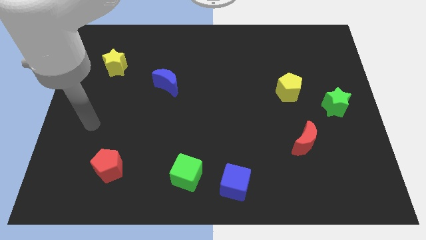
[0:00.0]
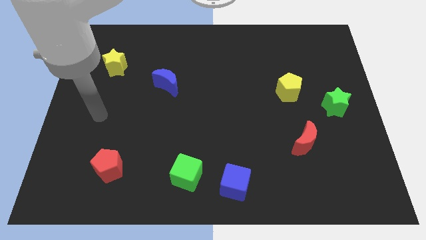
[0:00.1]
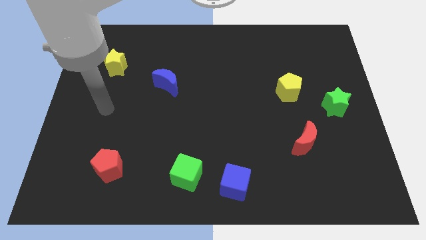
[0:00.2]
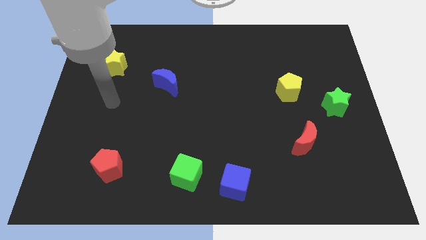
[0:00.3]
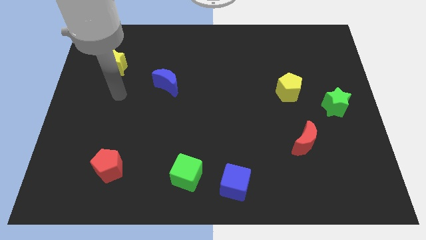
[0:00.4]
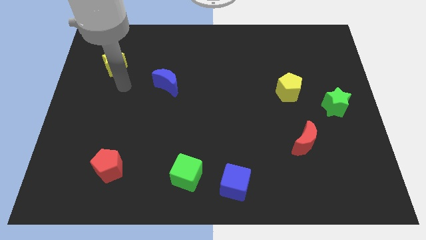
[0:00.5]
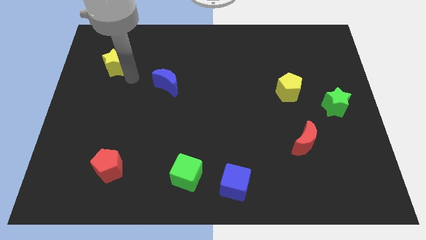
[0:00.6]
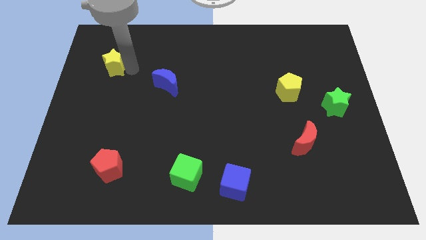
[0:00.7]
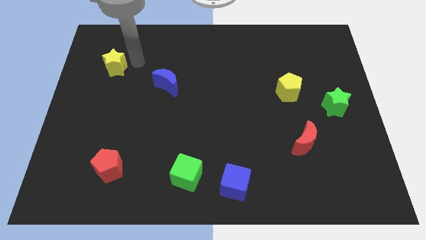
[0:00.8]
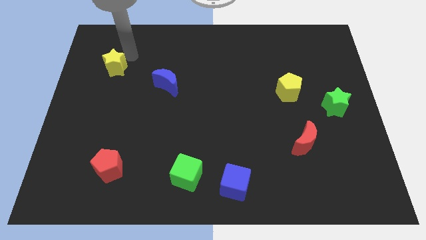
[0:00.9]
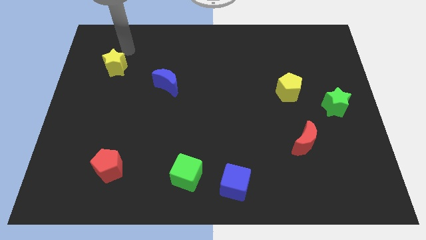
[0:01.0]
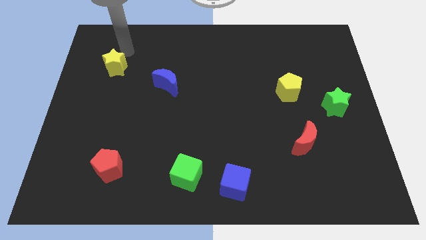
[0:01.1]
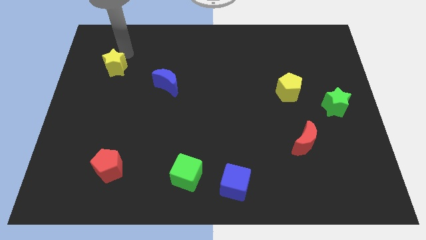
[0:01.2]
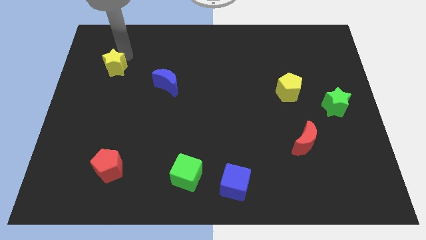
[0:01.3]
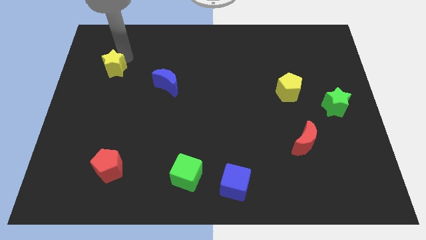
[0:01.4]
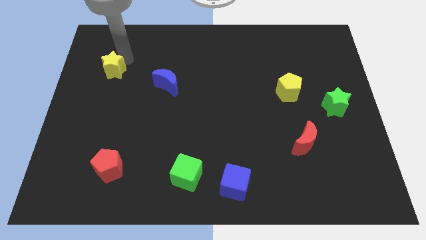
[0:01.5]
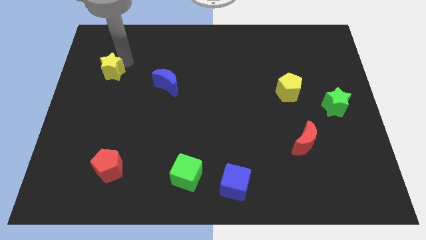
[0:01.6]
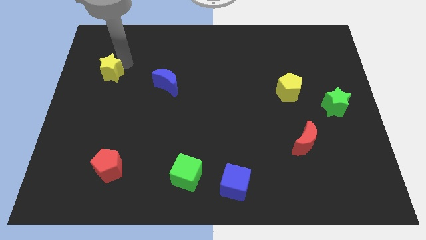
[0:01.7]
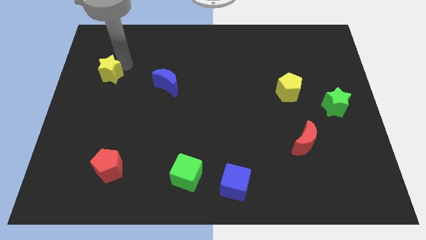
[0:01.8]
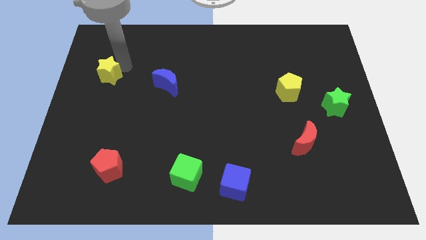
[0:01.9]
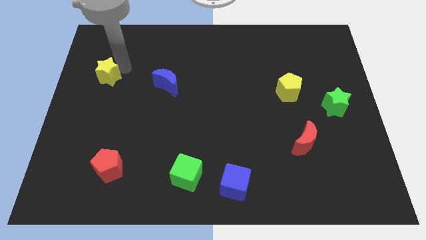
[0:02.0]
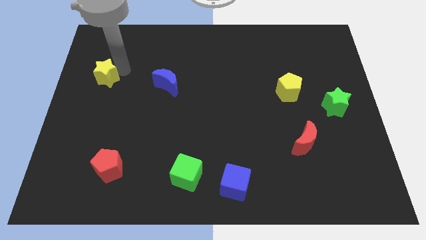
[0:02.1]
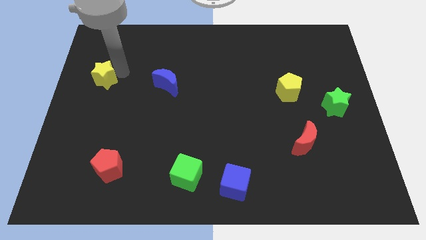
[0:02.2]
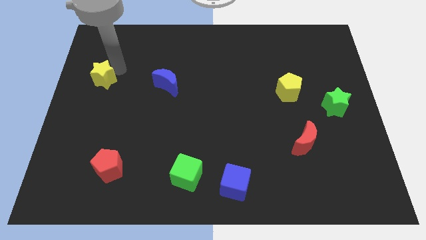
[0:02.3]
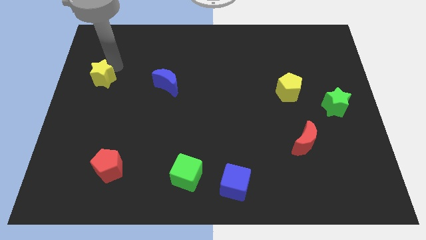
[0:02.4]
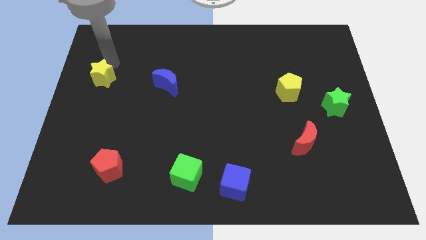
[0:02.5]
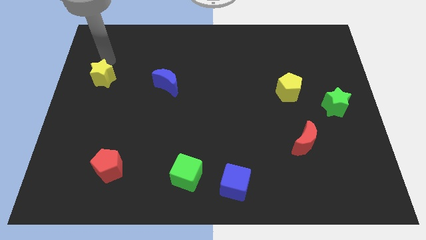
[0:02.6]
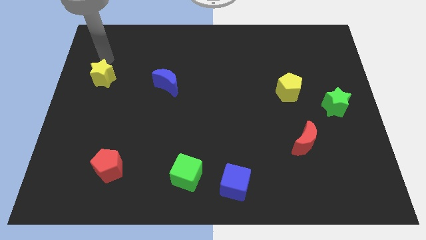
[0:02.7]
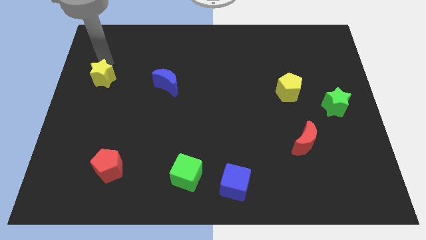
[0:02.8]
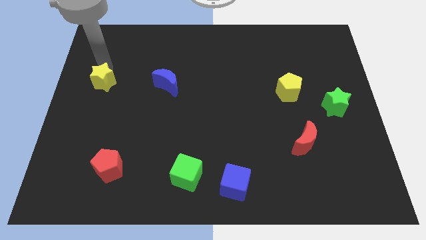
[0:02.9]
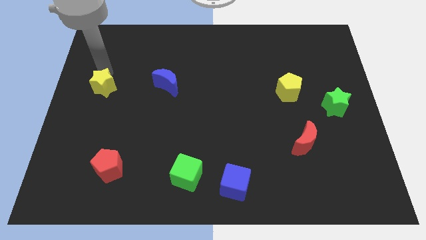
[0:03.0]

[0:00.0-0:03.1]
slide the yellow star a little downwards

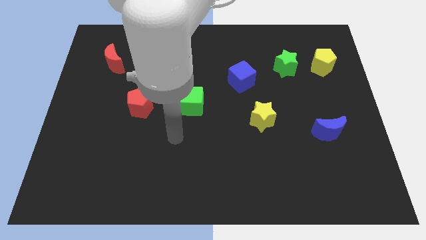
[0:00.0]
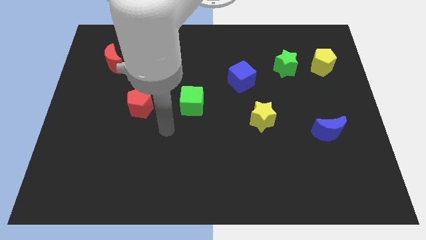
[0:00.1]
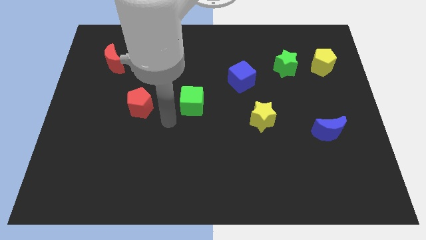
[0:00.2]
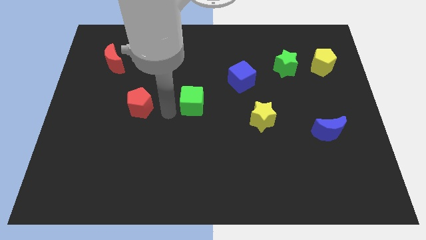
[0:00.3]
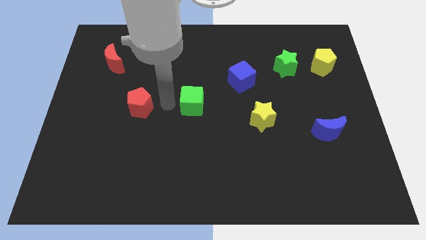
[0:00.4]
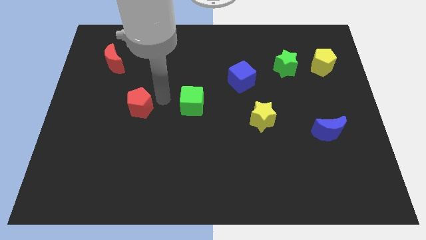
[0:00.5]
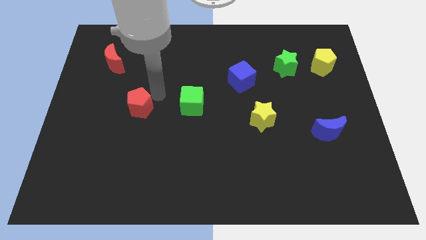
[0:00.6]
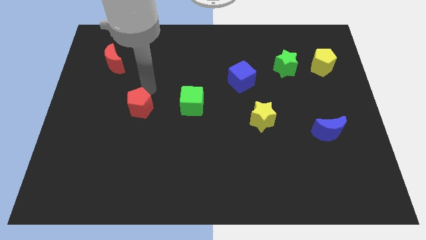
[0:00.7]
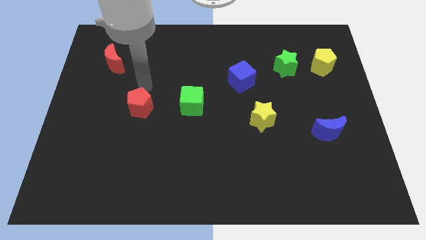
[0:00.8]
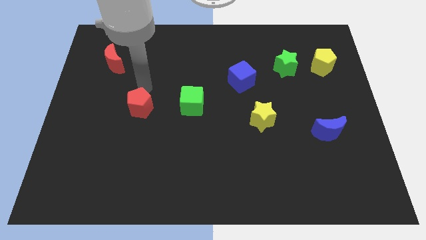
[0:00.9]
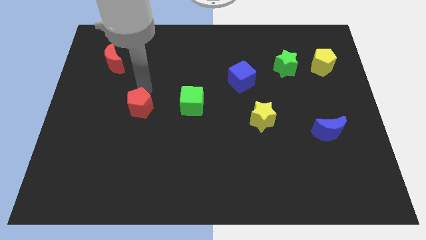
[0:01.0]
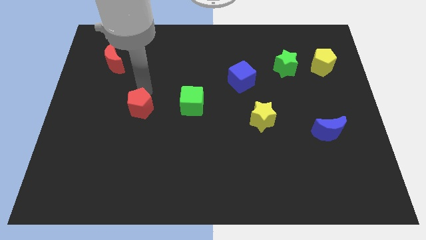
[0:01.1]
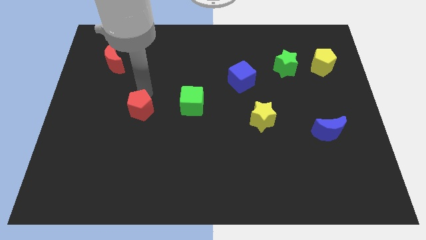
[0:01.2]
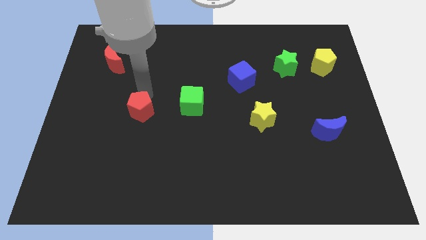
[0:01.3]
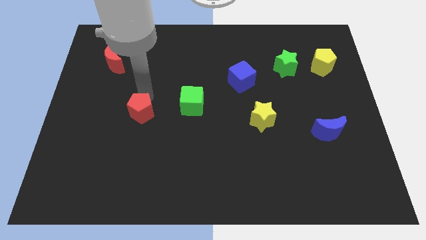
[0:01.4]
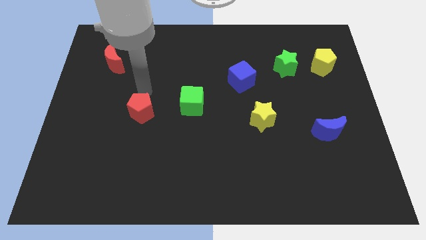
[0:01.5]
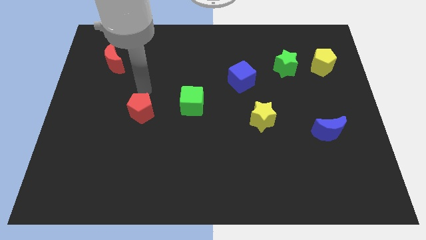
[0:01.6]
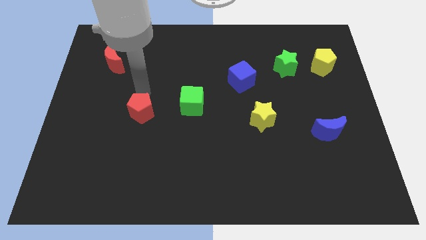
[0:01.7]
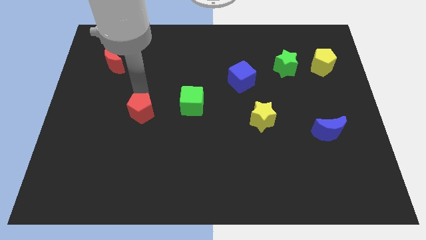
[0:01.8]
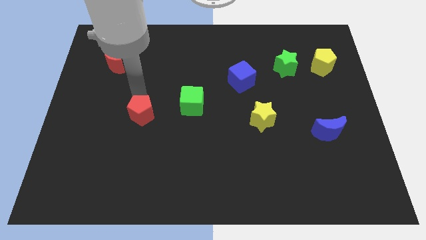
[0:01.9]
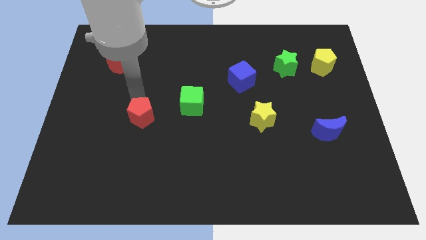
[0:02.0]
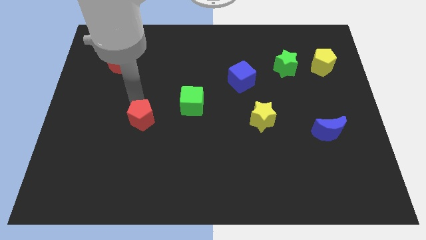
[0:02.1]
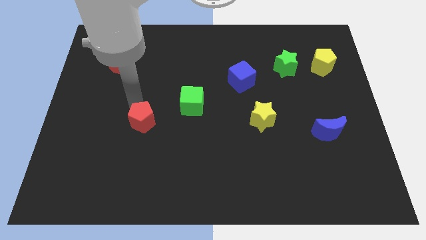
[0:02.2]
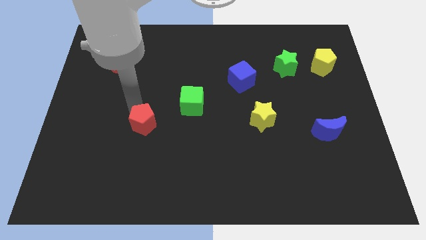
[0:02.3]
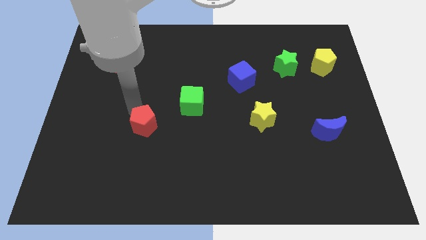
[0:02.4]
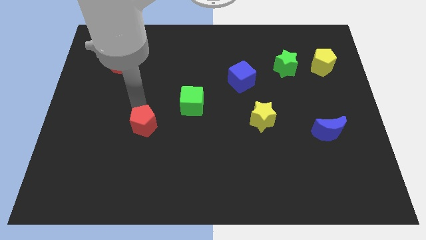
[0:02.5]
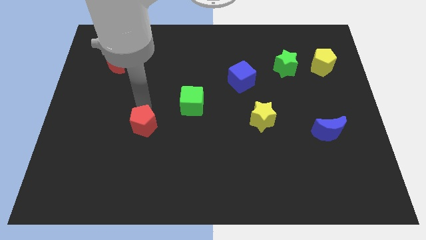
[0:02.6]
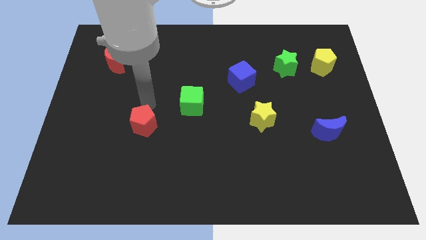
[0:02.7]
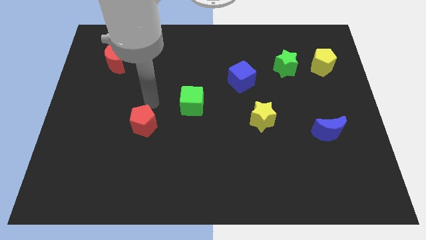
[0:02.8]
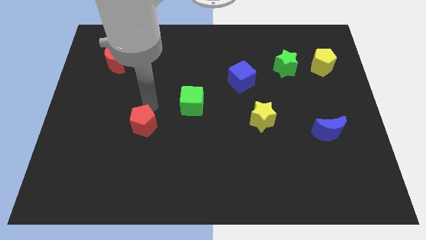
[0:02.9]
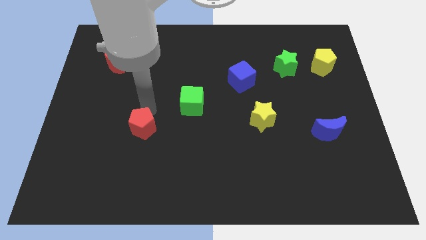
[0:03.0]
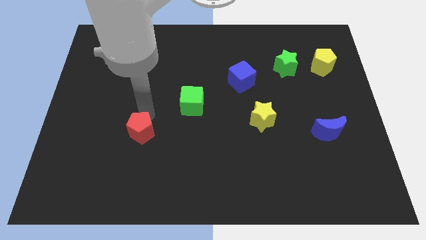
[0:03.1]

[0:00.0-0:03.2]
push the red pentagon somewhat down

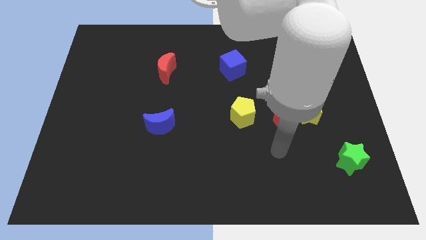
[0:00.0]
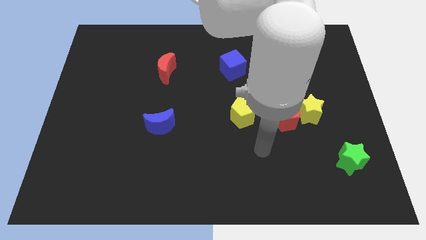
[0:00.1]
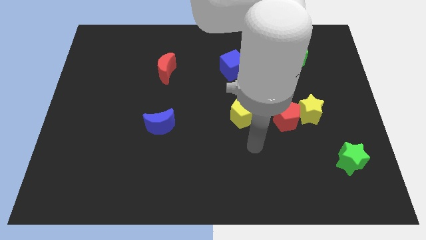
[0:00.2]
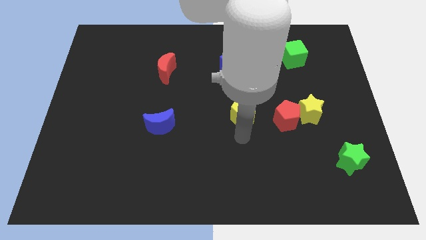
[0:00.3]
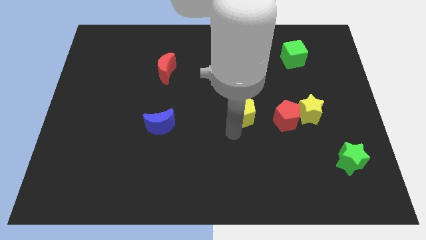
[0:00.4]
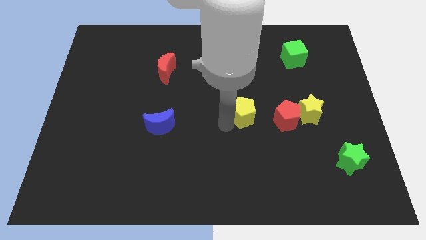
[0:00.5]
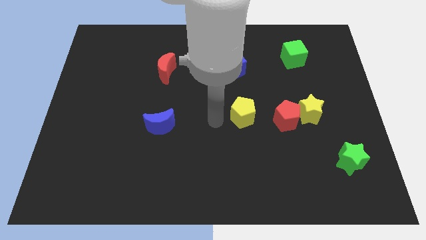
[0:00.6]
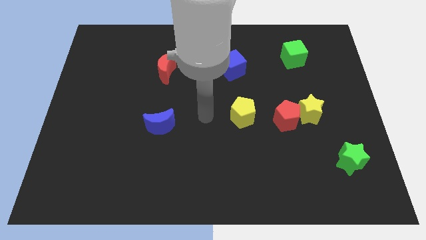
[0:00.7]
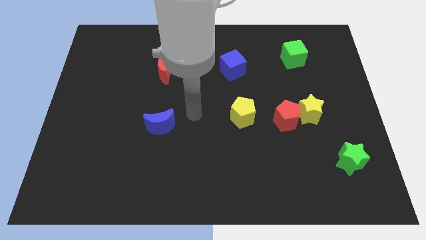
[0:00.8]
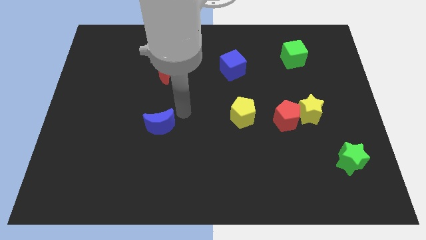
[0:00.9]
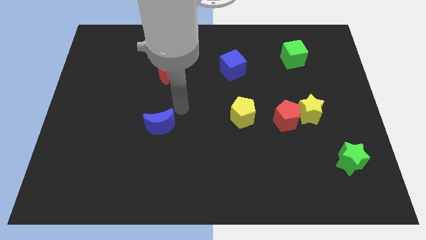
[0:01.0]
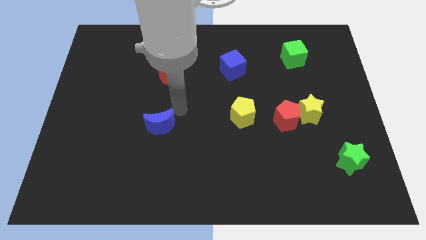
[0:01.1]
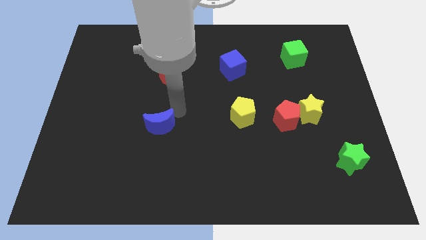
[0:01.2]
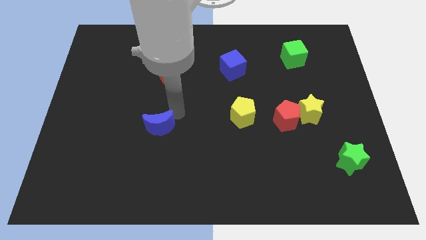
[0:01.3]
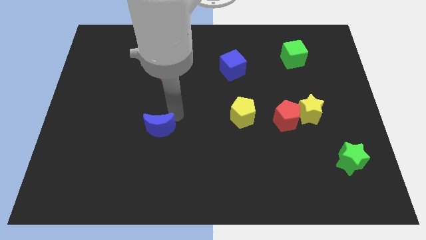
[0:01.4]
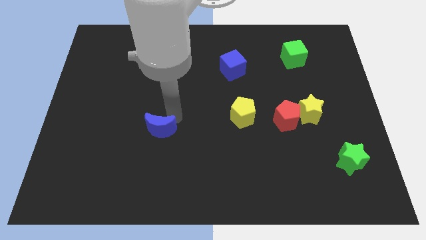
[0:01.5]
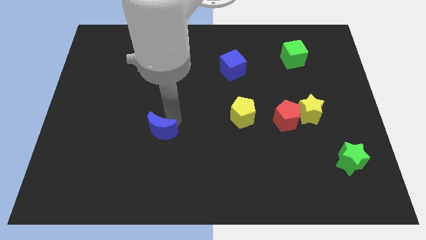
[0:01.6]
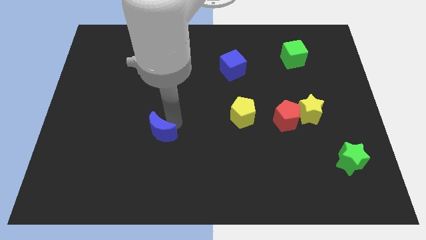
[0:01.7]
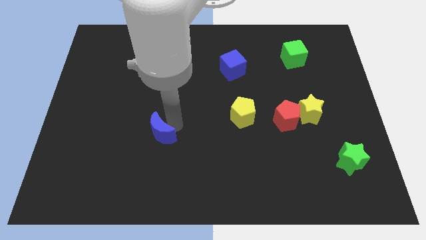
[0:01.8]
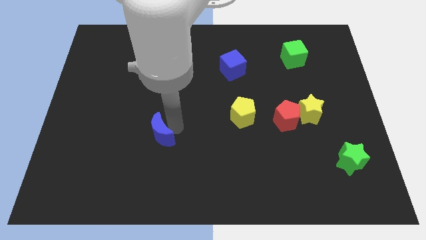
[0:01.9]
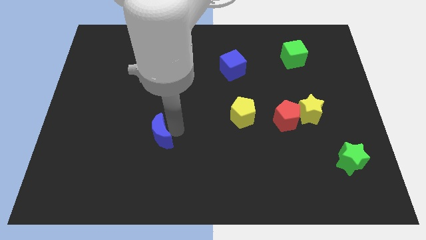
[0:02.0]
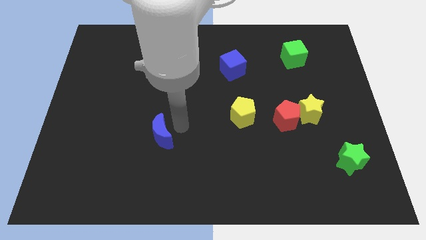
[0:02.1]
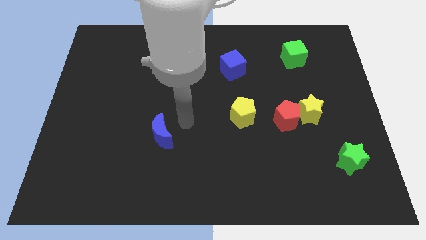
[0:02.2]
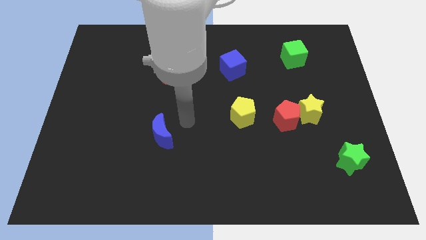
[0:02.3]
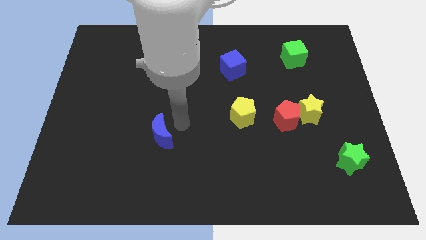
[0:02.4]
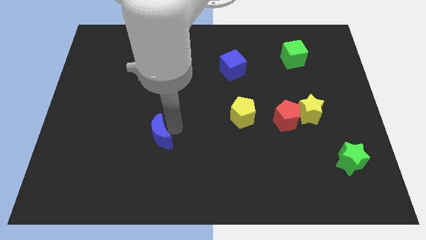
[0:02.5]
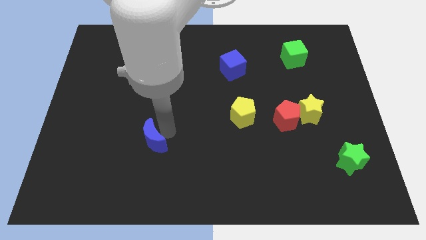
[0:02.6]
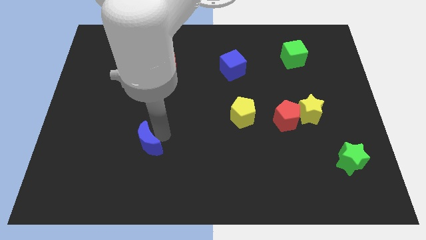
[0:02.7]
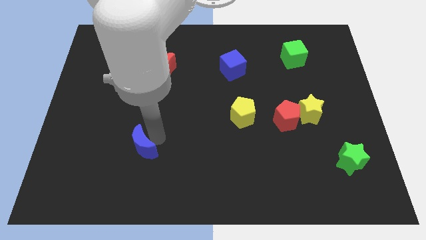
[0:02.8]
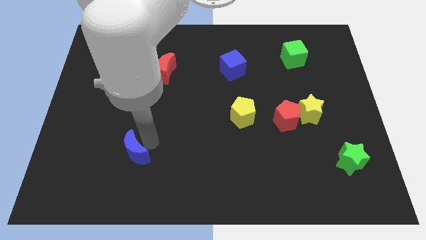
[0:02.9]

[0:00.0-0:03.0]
slightly push the blue moon down and left
